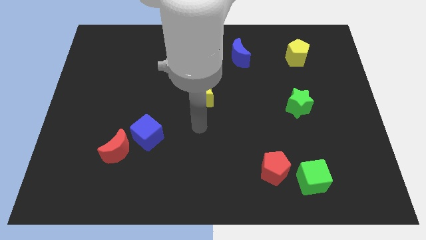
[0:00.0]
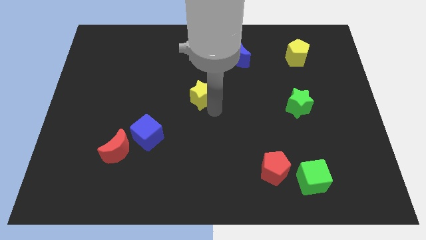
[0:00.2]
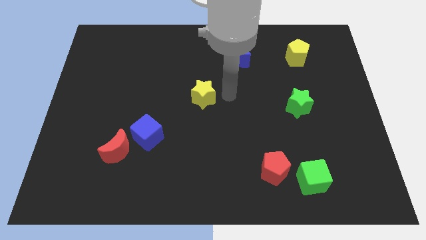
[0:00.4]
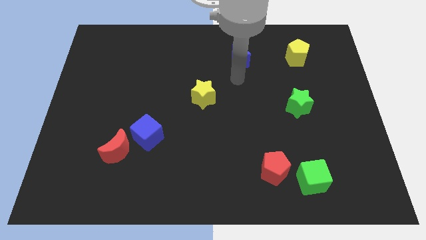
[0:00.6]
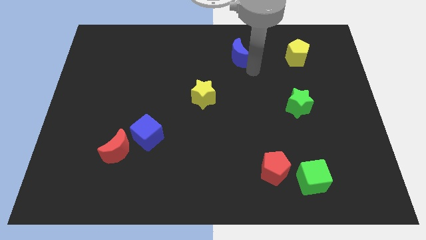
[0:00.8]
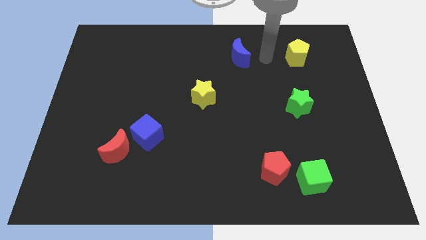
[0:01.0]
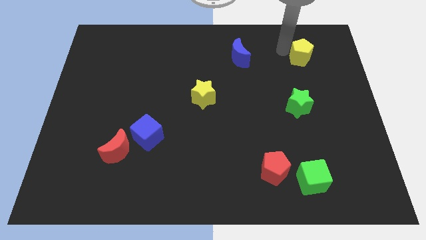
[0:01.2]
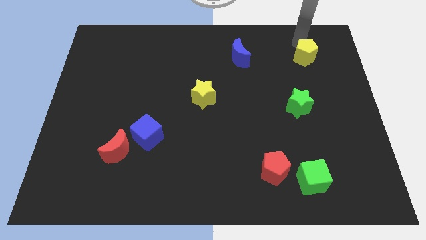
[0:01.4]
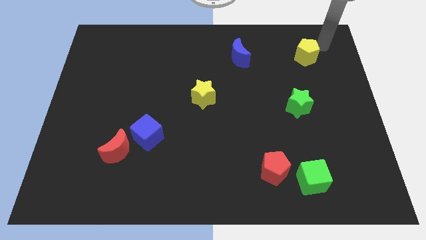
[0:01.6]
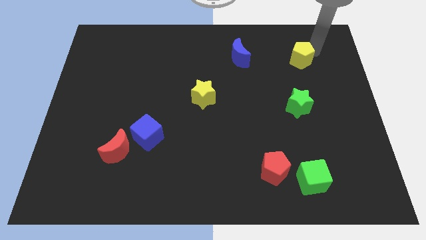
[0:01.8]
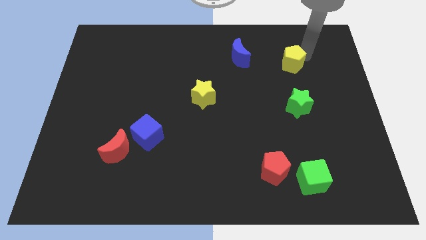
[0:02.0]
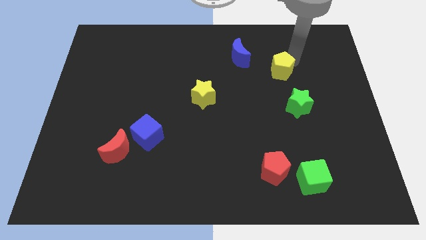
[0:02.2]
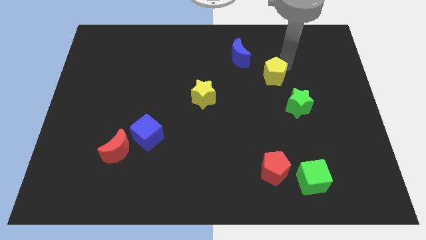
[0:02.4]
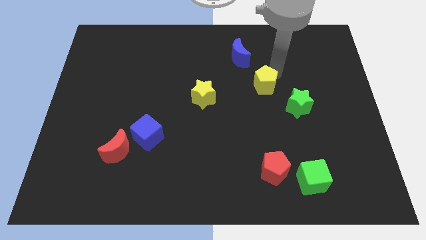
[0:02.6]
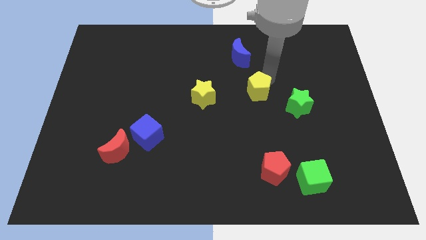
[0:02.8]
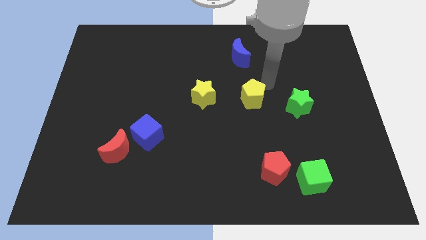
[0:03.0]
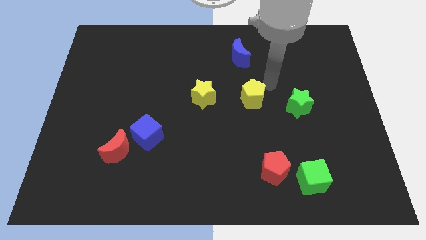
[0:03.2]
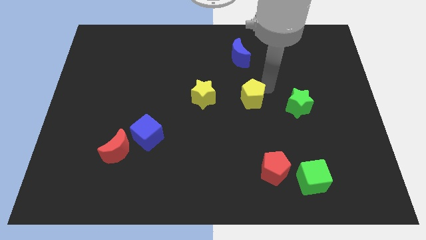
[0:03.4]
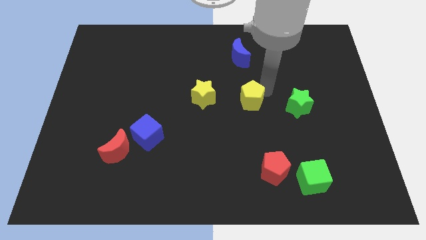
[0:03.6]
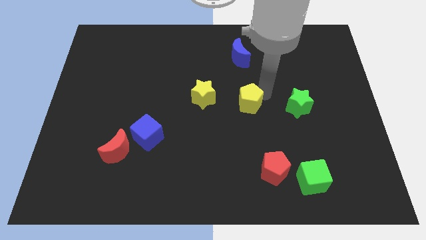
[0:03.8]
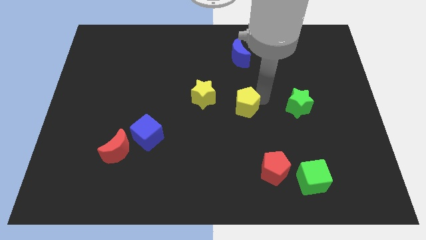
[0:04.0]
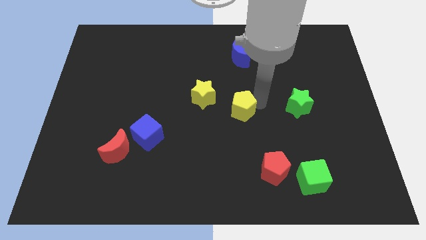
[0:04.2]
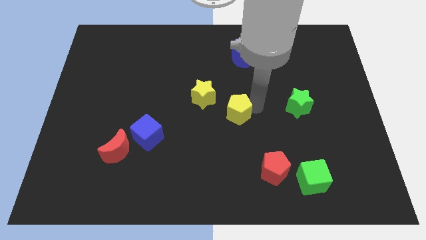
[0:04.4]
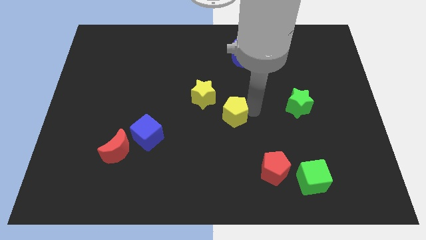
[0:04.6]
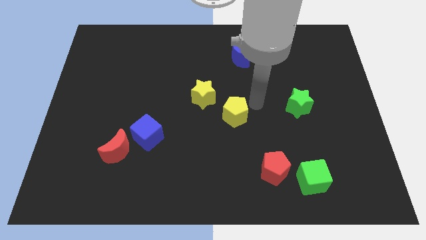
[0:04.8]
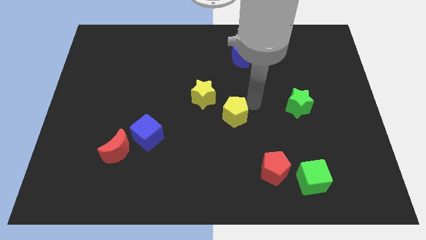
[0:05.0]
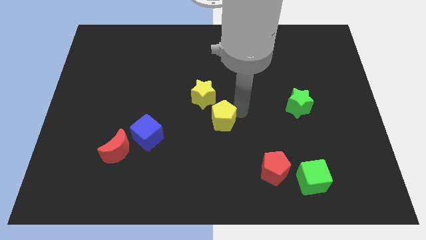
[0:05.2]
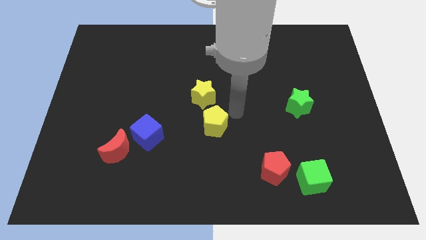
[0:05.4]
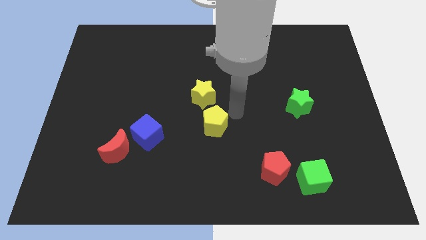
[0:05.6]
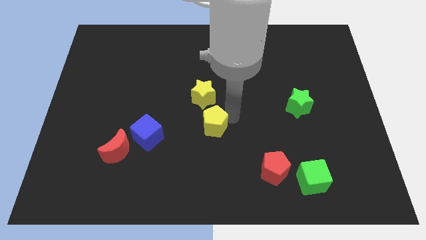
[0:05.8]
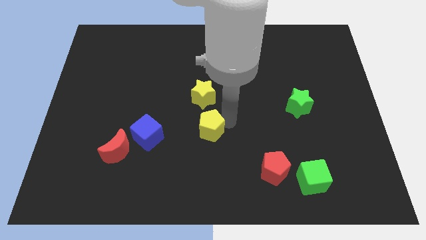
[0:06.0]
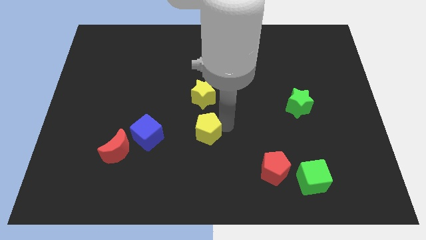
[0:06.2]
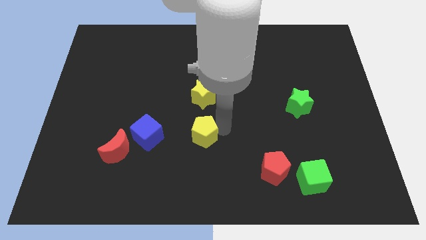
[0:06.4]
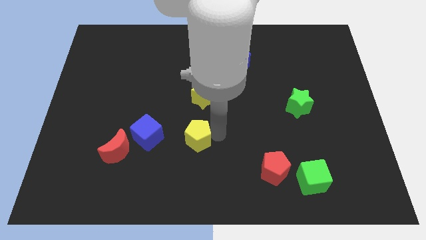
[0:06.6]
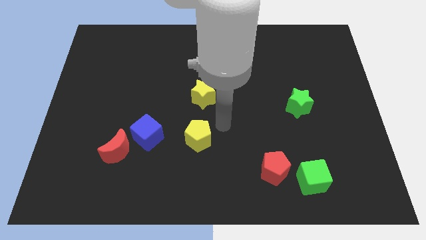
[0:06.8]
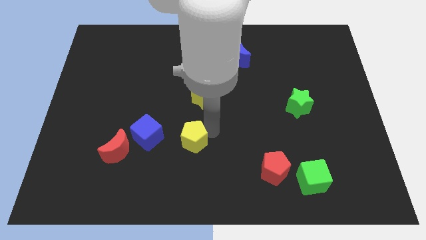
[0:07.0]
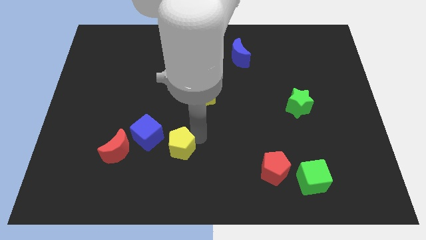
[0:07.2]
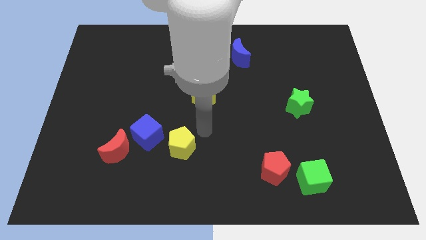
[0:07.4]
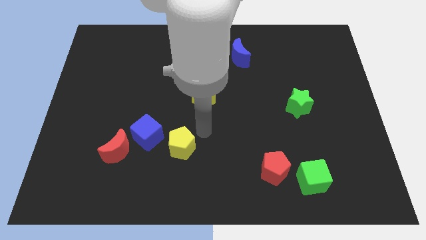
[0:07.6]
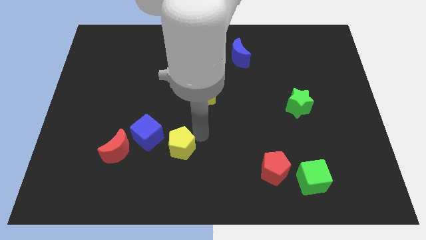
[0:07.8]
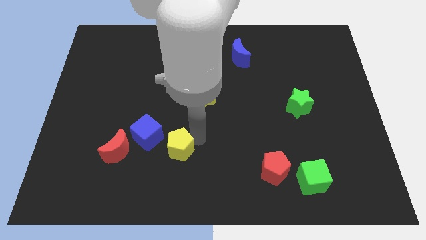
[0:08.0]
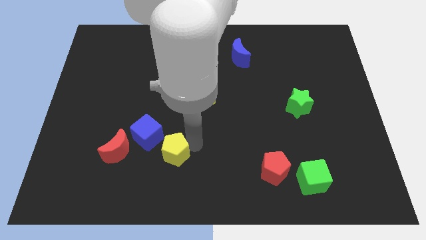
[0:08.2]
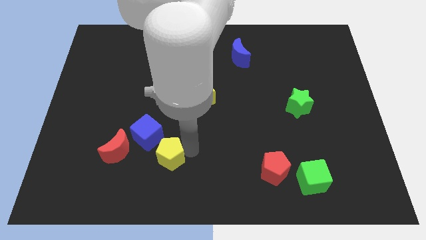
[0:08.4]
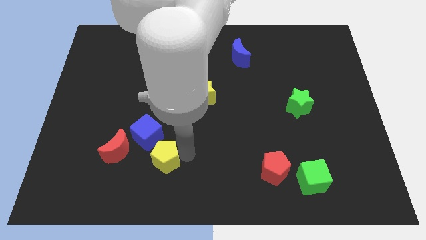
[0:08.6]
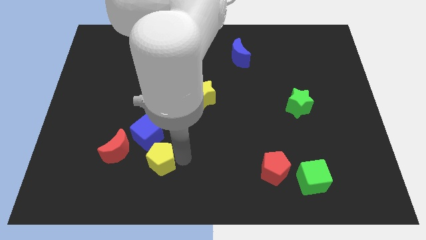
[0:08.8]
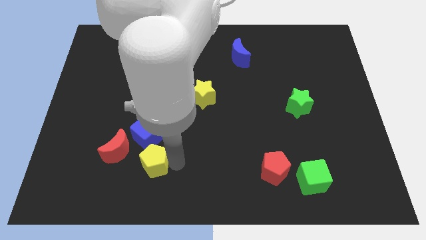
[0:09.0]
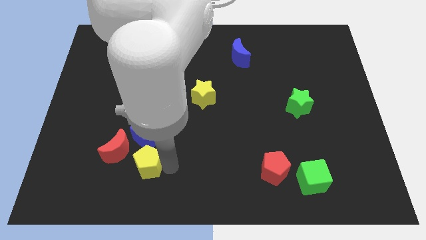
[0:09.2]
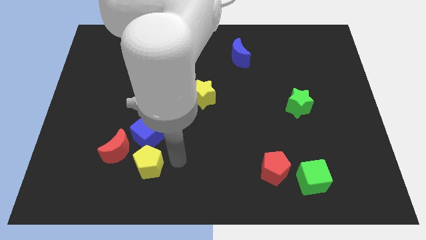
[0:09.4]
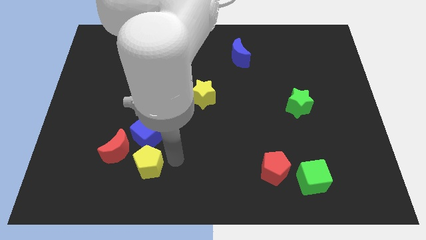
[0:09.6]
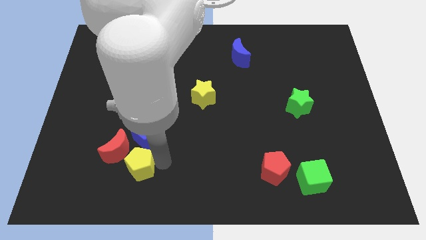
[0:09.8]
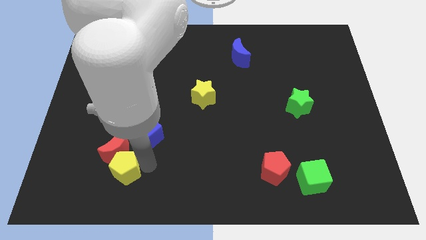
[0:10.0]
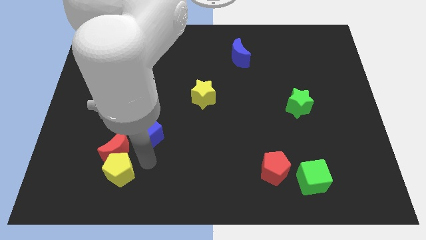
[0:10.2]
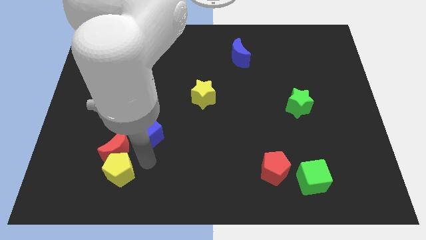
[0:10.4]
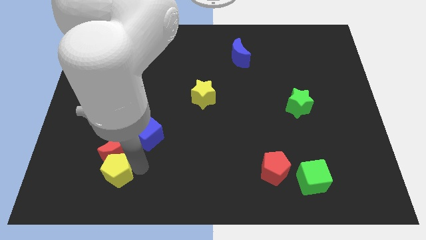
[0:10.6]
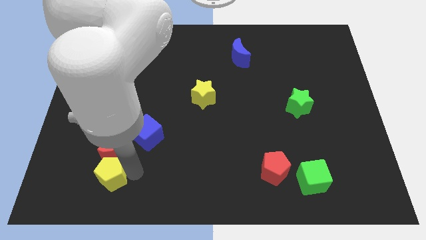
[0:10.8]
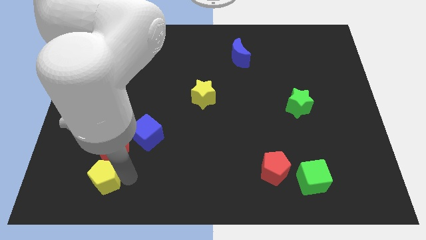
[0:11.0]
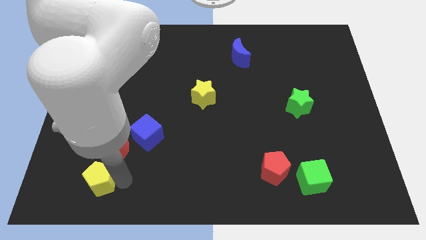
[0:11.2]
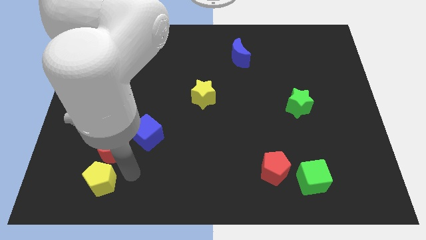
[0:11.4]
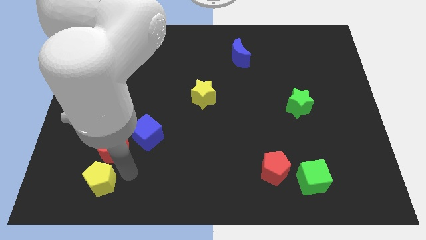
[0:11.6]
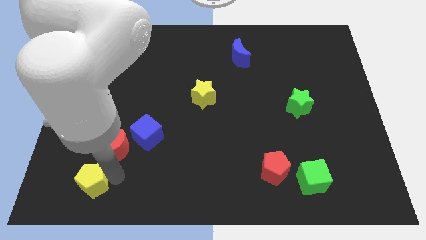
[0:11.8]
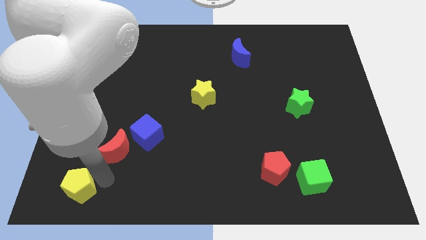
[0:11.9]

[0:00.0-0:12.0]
slide the yellow pentagon to the bottom left

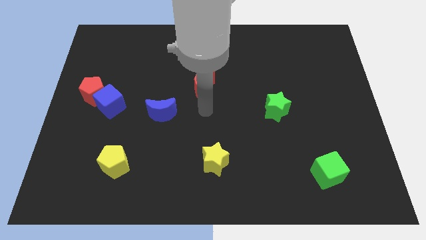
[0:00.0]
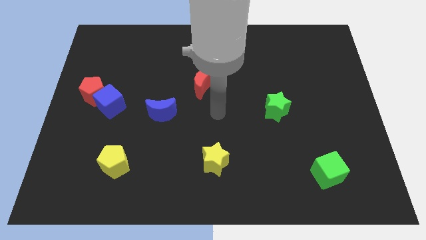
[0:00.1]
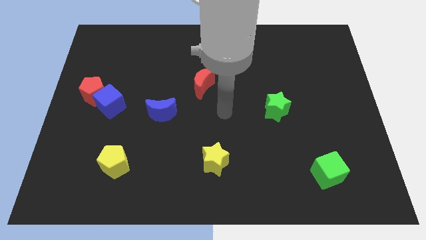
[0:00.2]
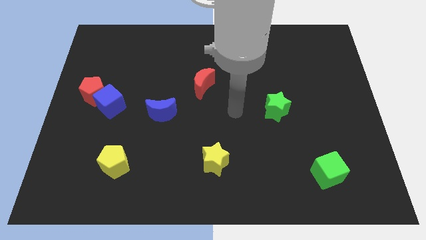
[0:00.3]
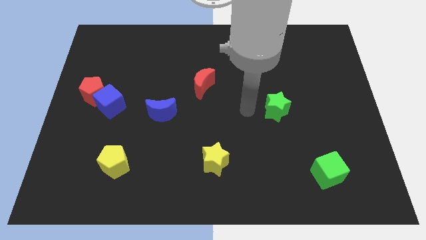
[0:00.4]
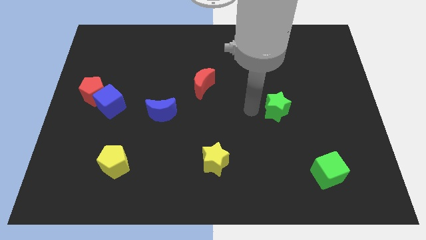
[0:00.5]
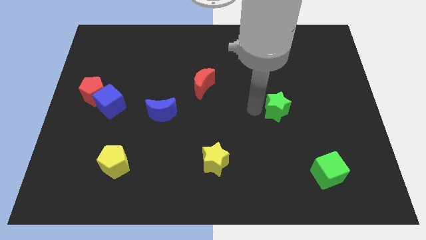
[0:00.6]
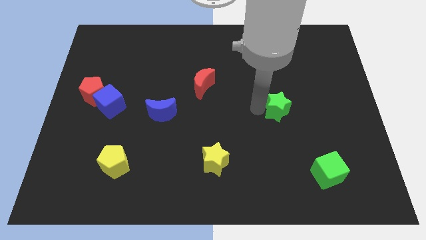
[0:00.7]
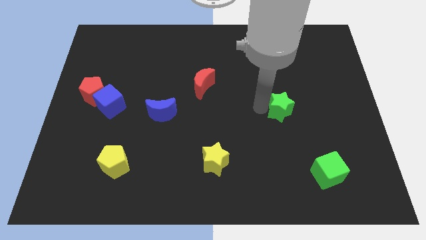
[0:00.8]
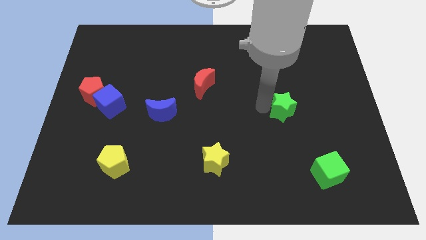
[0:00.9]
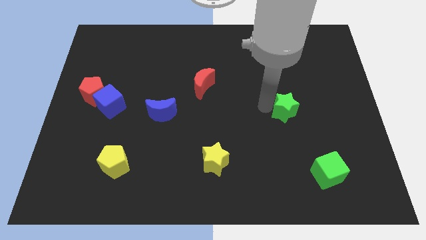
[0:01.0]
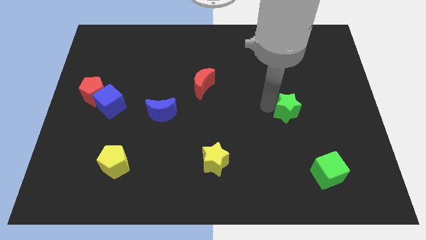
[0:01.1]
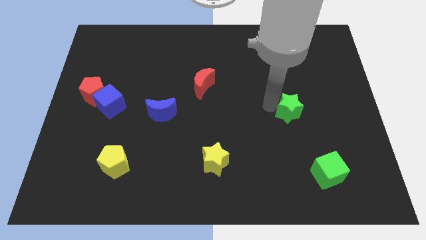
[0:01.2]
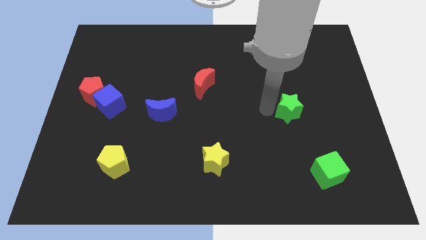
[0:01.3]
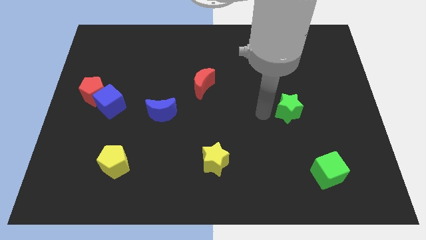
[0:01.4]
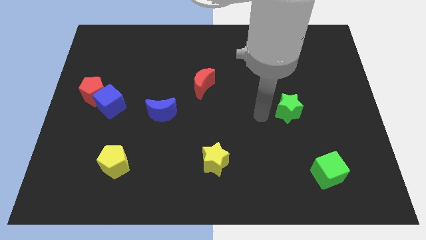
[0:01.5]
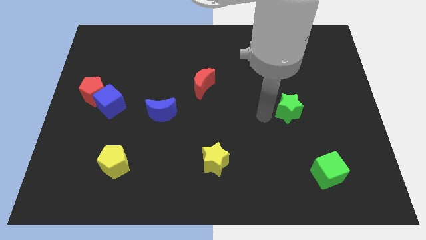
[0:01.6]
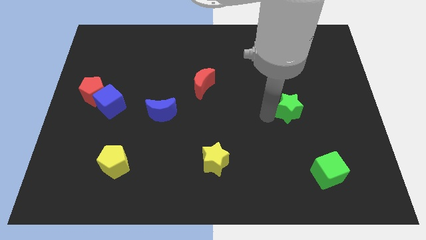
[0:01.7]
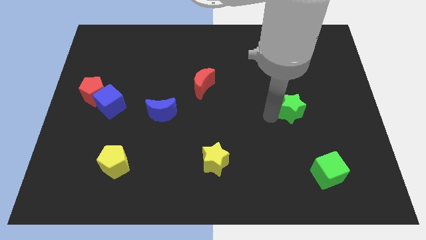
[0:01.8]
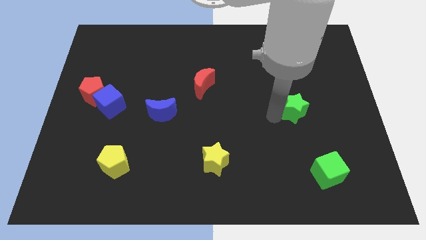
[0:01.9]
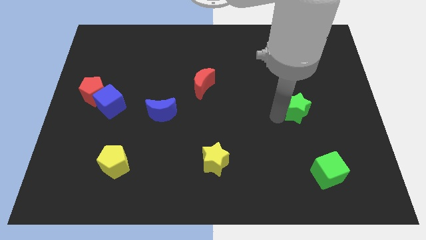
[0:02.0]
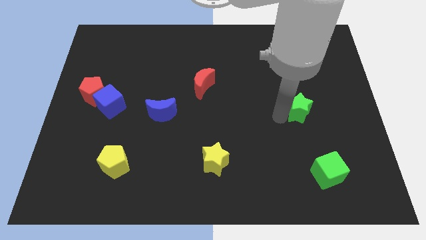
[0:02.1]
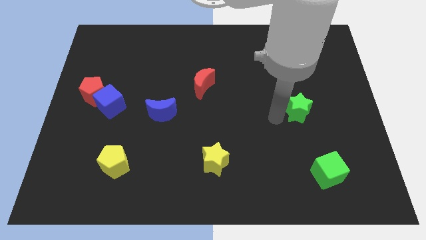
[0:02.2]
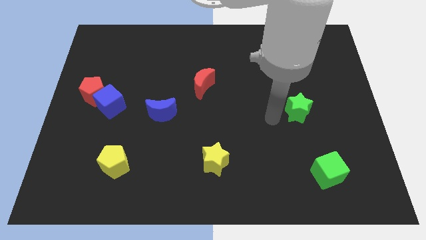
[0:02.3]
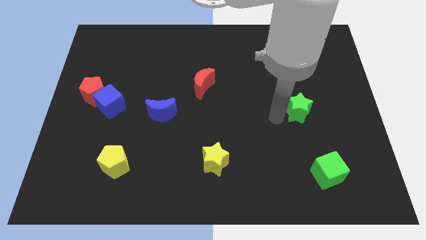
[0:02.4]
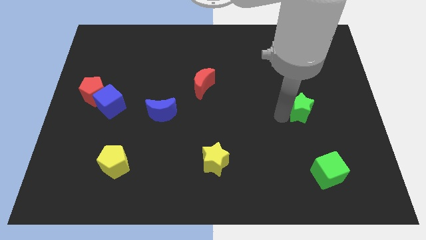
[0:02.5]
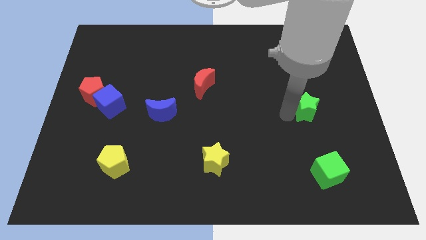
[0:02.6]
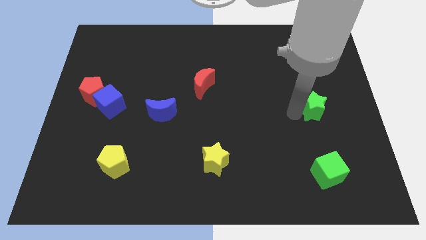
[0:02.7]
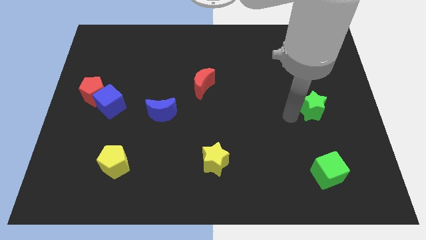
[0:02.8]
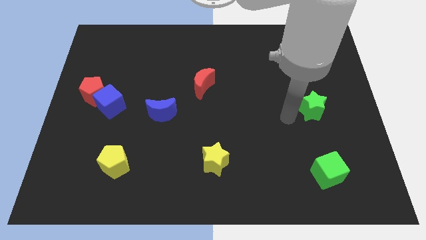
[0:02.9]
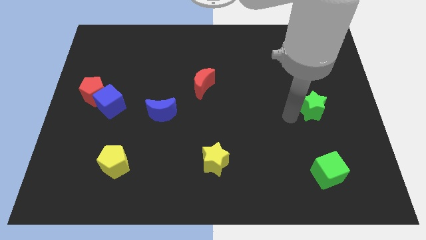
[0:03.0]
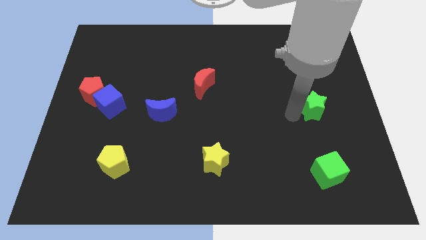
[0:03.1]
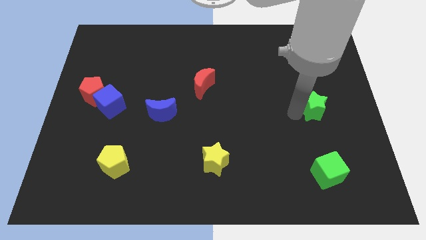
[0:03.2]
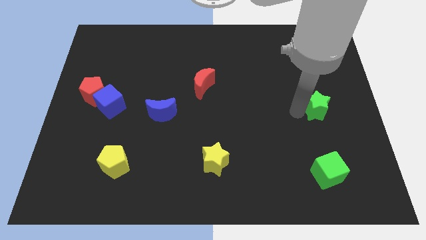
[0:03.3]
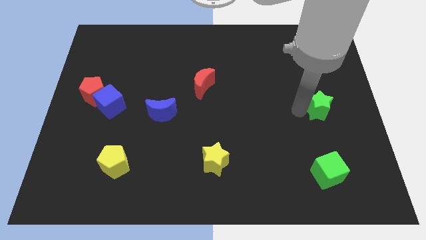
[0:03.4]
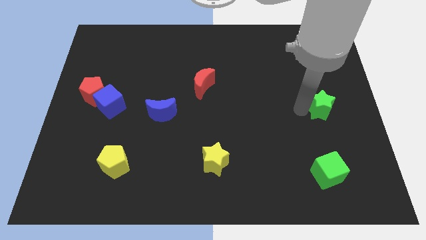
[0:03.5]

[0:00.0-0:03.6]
slide the green star to the right side of the board
